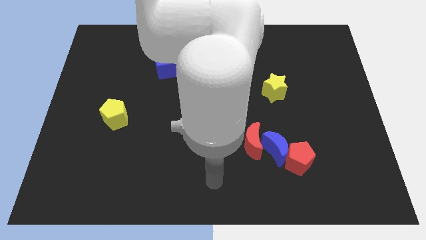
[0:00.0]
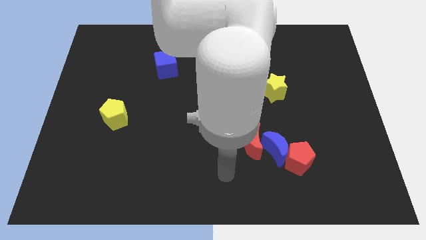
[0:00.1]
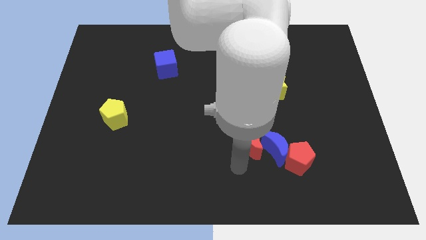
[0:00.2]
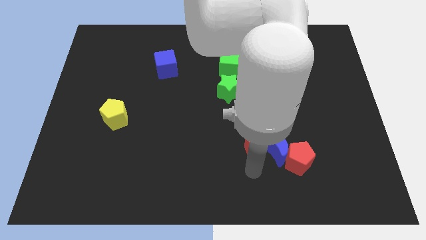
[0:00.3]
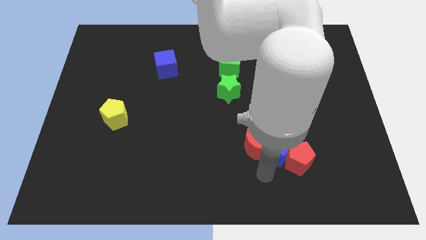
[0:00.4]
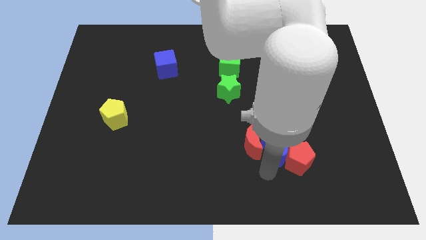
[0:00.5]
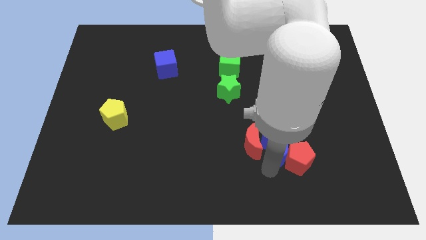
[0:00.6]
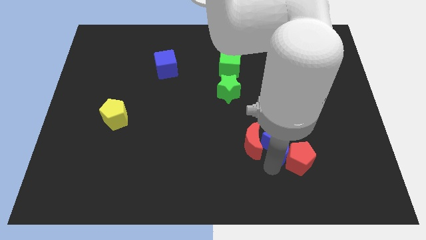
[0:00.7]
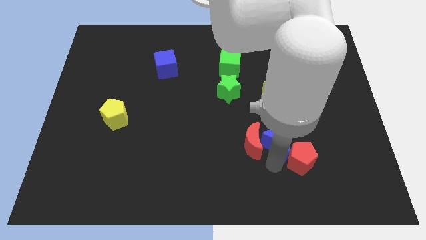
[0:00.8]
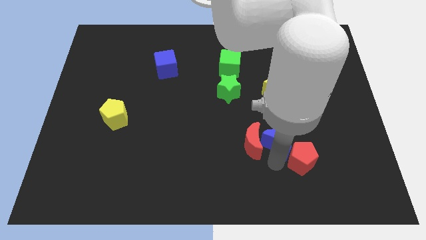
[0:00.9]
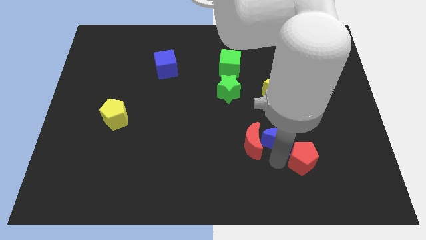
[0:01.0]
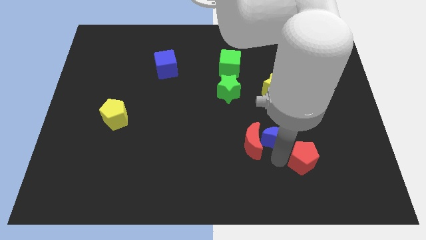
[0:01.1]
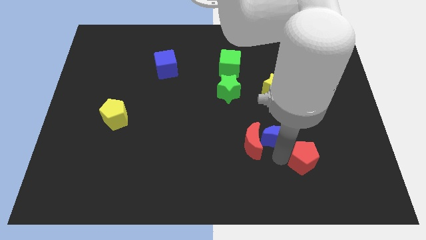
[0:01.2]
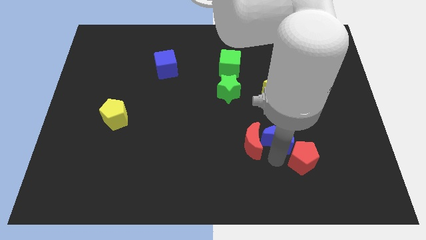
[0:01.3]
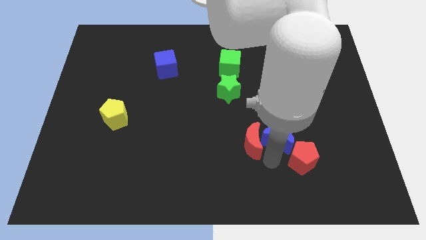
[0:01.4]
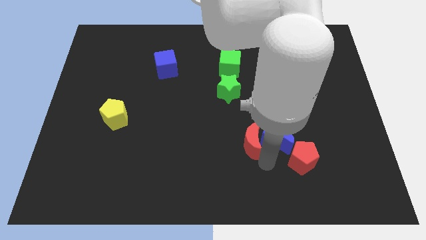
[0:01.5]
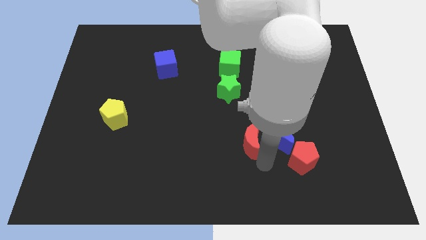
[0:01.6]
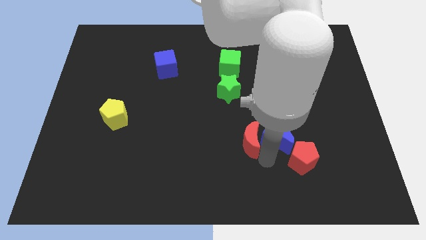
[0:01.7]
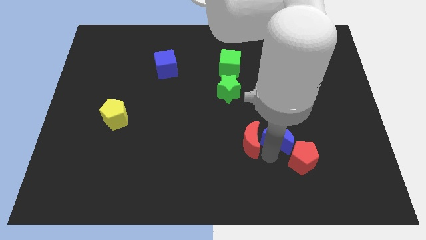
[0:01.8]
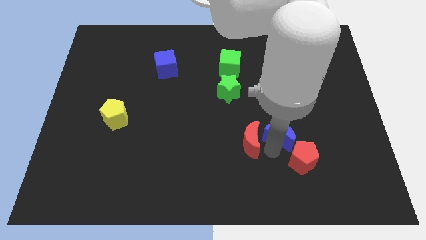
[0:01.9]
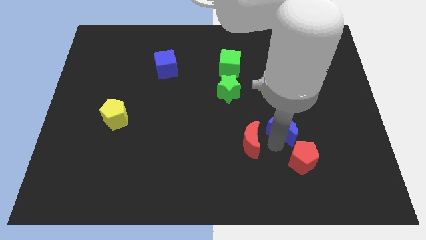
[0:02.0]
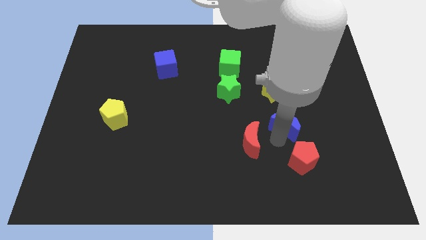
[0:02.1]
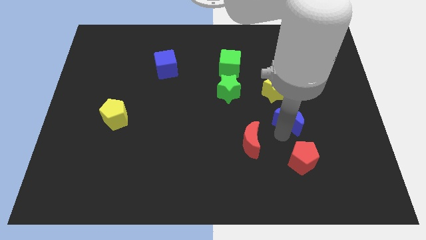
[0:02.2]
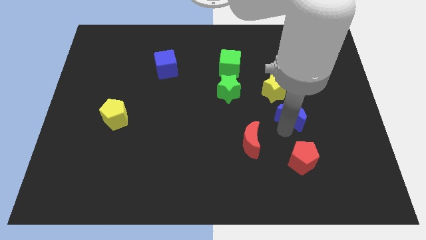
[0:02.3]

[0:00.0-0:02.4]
move the blue moon away from the red pentagon and red moon

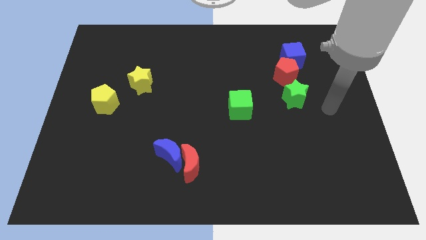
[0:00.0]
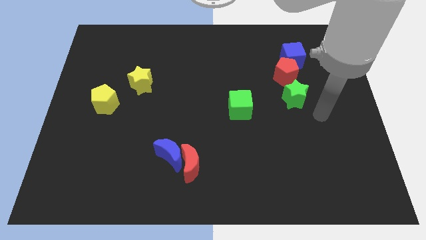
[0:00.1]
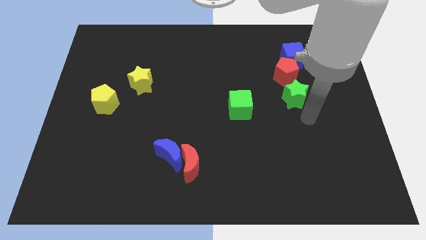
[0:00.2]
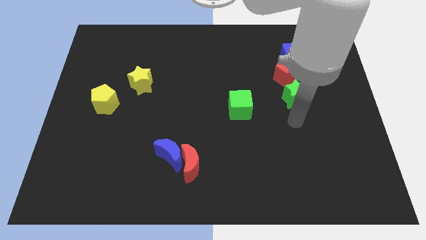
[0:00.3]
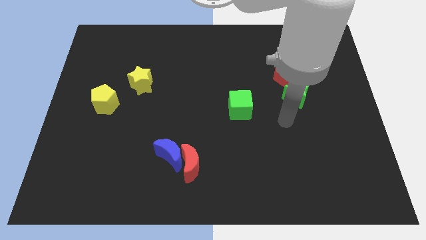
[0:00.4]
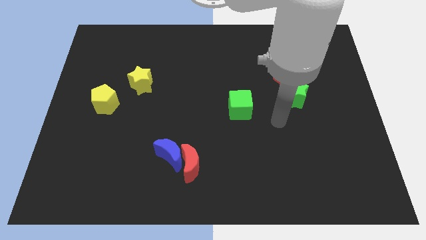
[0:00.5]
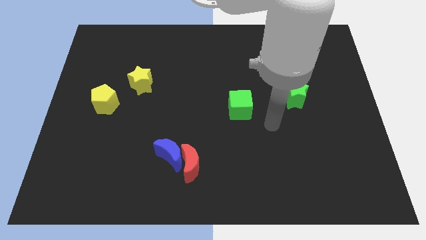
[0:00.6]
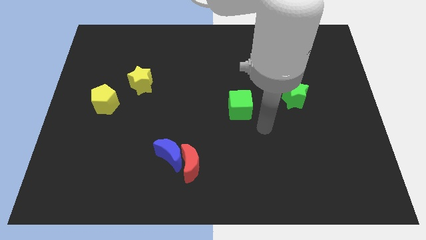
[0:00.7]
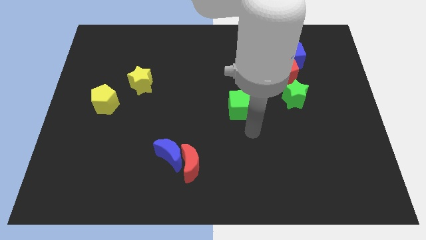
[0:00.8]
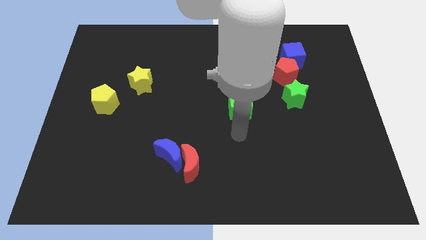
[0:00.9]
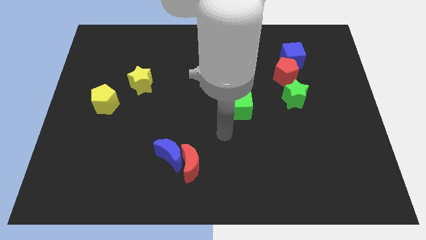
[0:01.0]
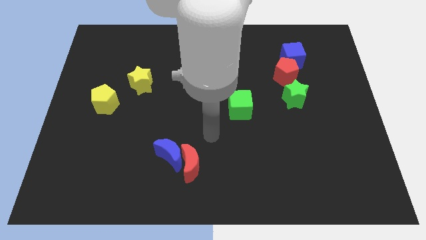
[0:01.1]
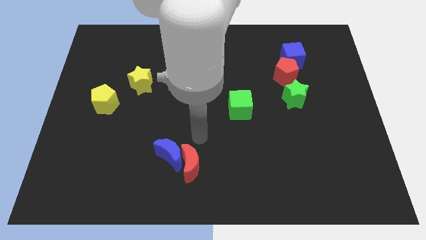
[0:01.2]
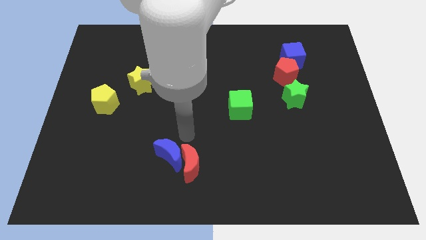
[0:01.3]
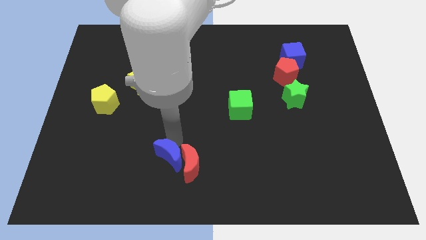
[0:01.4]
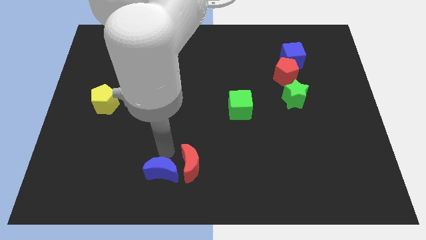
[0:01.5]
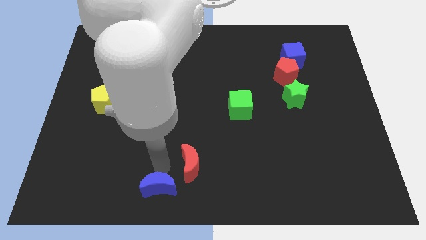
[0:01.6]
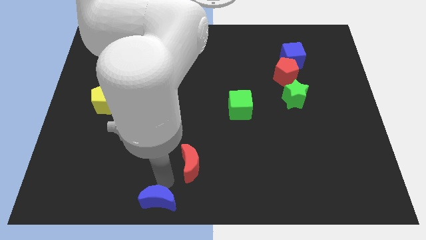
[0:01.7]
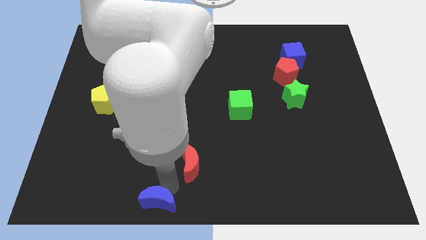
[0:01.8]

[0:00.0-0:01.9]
move the red moon away from the blue moon

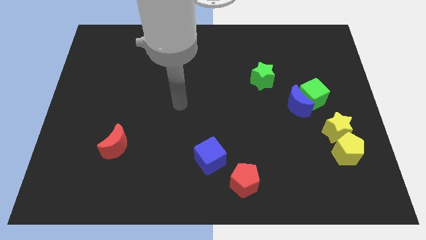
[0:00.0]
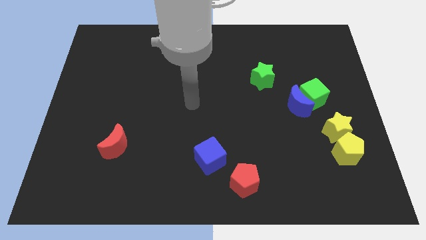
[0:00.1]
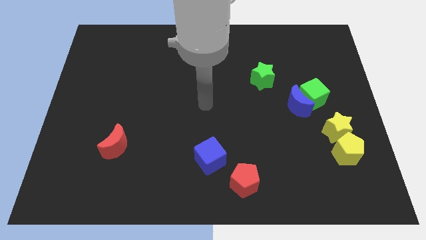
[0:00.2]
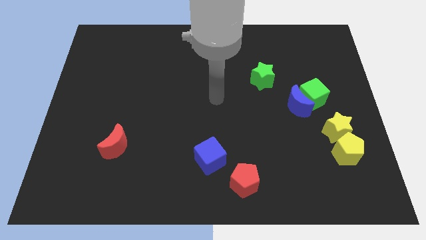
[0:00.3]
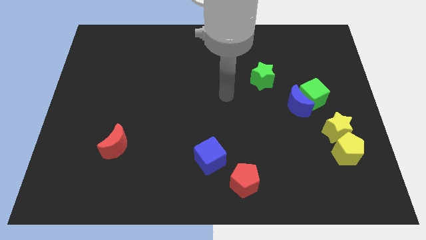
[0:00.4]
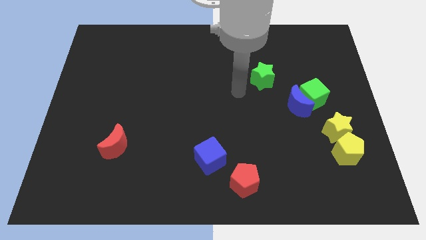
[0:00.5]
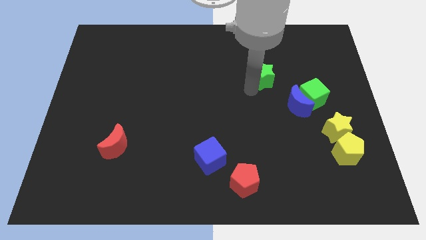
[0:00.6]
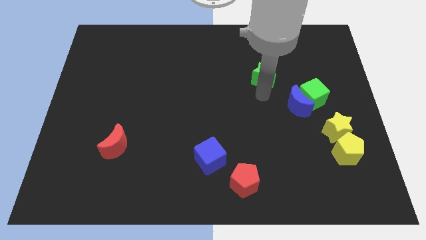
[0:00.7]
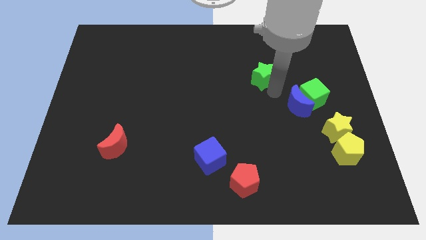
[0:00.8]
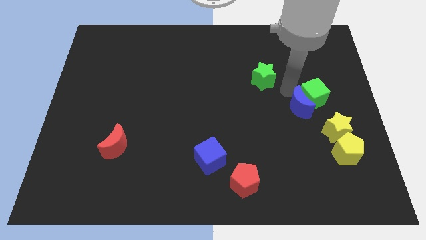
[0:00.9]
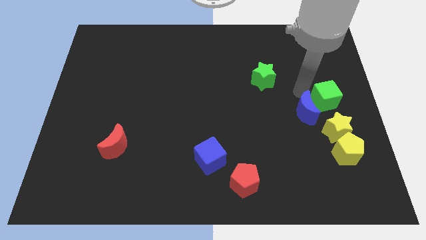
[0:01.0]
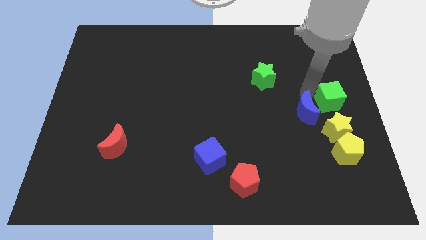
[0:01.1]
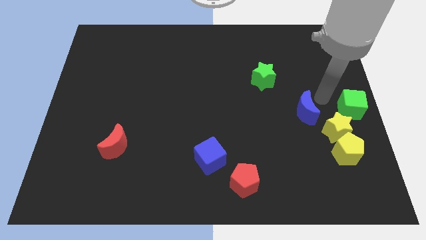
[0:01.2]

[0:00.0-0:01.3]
pull the blue moon apart from the green cube

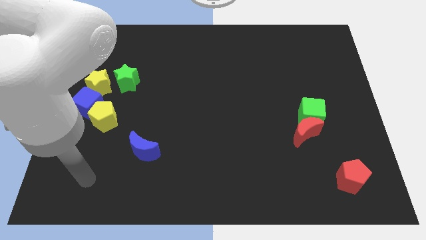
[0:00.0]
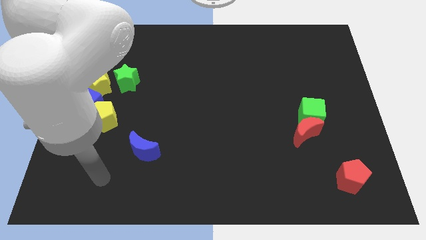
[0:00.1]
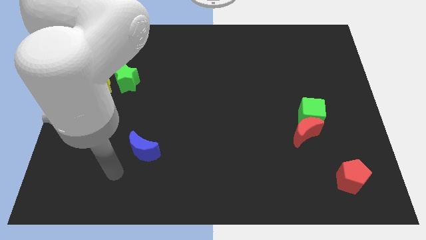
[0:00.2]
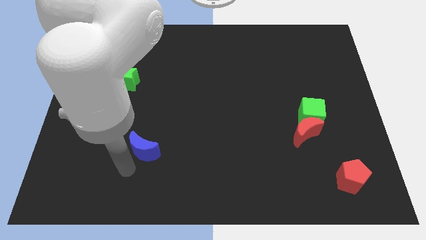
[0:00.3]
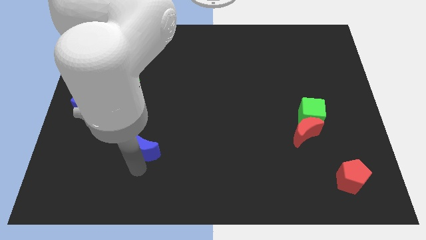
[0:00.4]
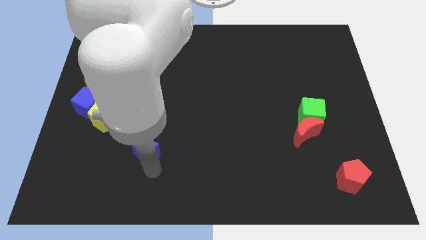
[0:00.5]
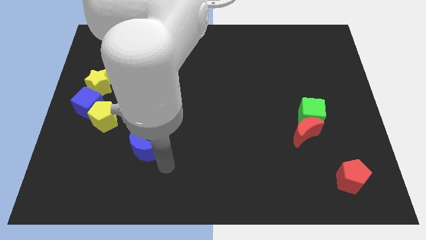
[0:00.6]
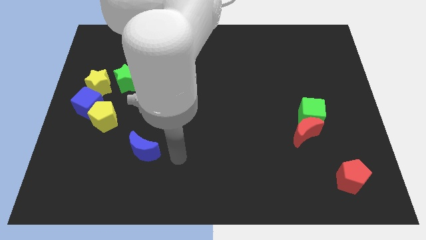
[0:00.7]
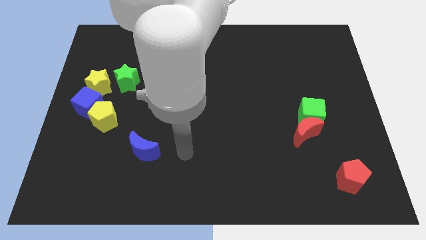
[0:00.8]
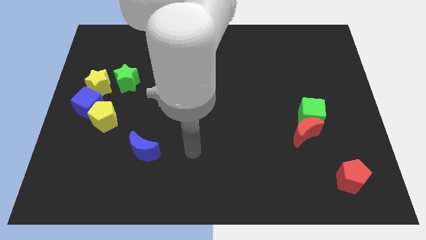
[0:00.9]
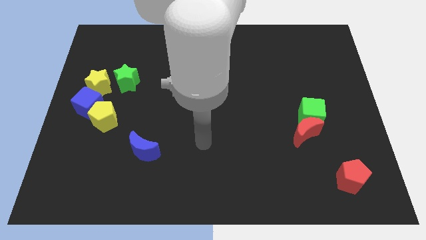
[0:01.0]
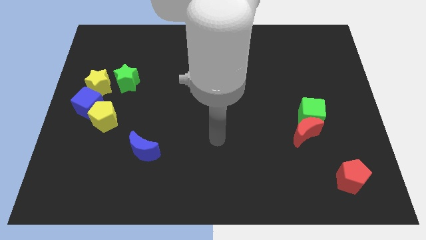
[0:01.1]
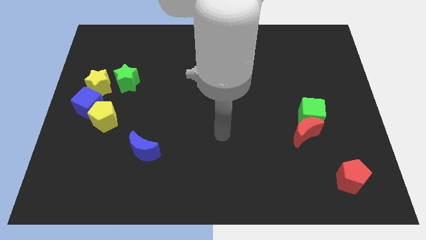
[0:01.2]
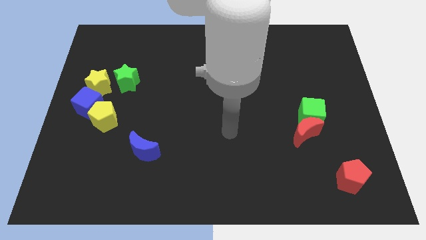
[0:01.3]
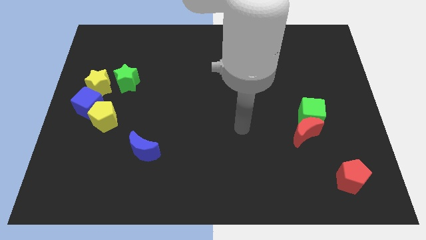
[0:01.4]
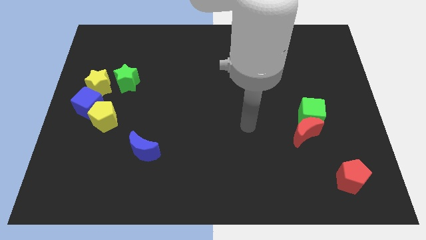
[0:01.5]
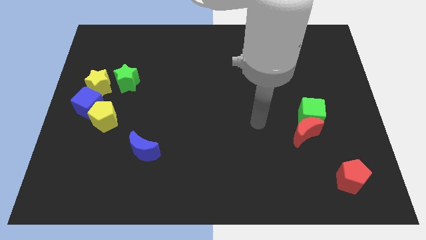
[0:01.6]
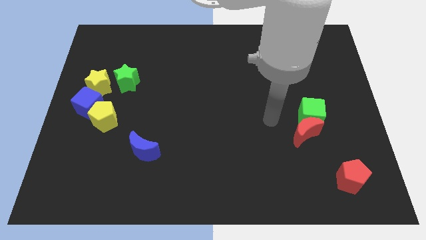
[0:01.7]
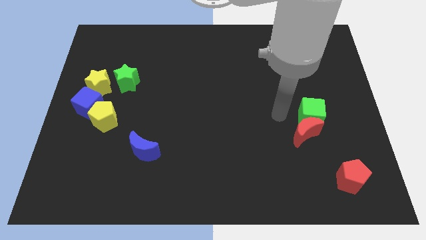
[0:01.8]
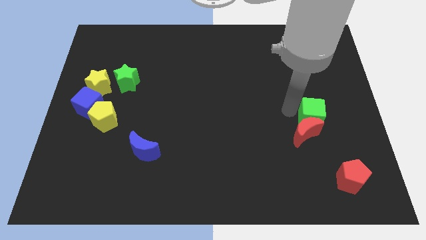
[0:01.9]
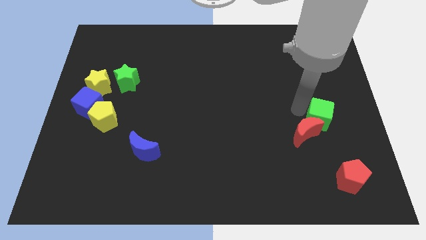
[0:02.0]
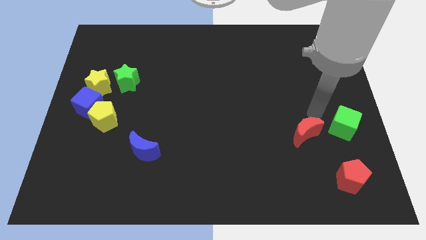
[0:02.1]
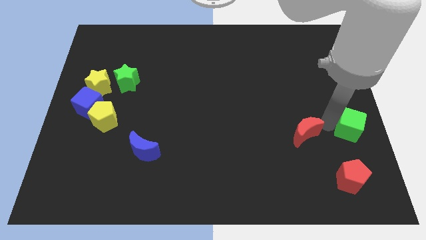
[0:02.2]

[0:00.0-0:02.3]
separate the red moon from the green cube

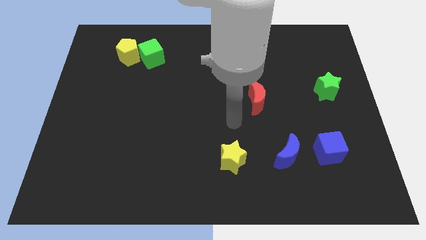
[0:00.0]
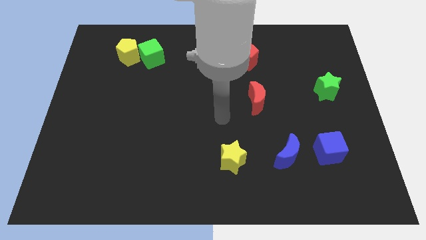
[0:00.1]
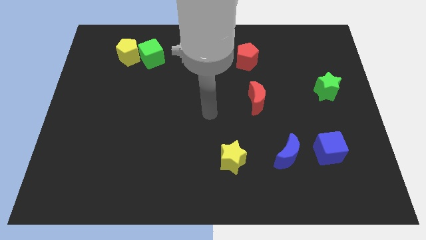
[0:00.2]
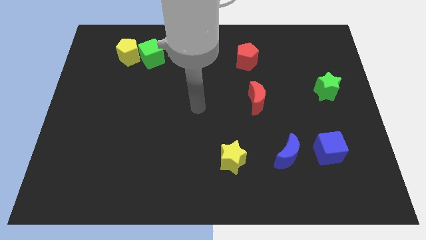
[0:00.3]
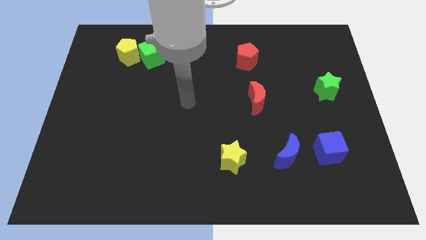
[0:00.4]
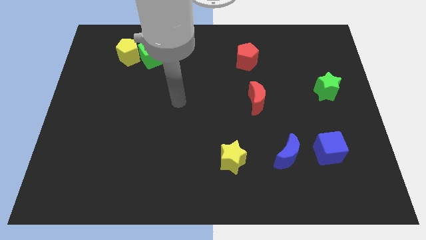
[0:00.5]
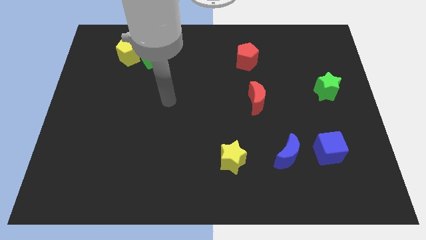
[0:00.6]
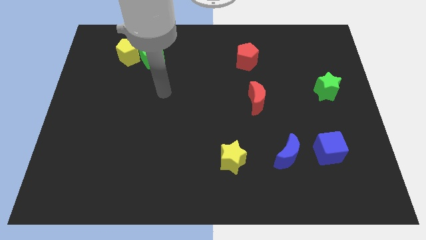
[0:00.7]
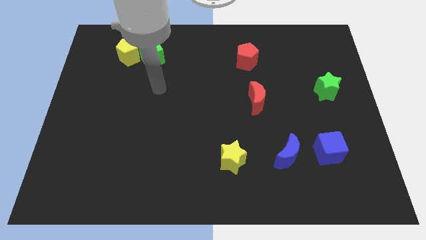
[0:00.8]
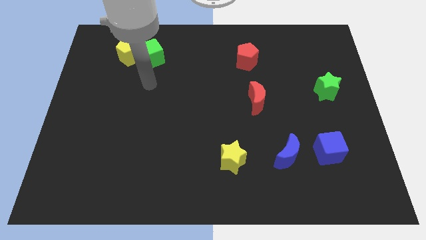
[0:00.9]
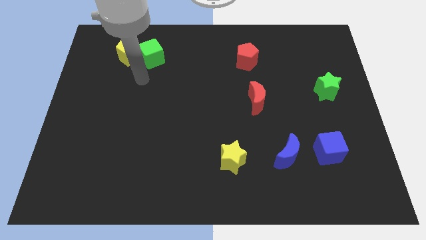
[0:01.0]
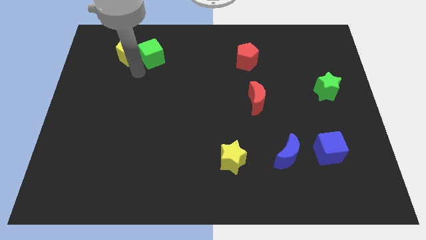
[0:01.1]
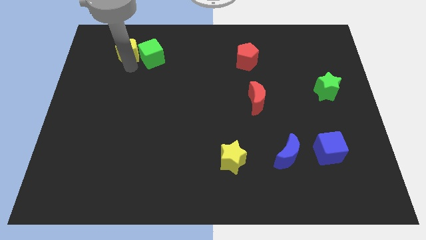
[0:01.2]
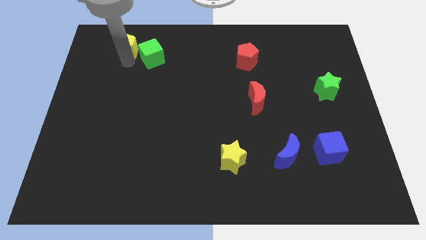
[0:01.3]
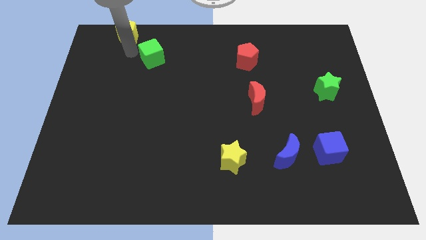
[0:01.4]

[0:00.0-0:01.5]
separate the green cube from the yellow pentagon
